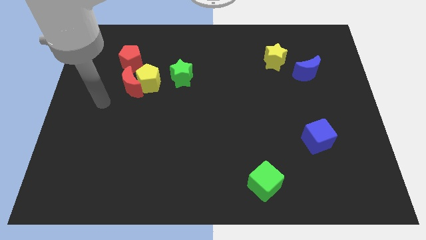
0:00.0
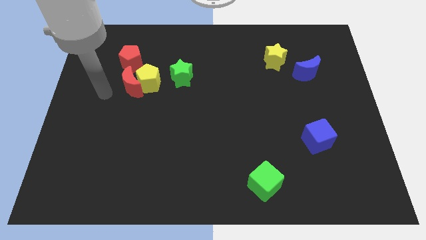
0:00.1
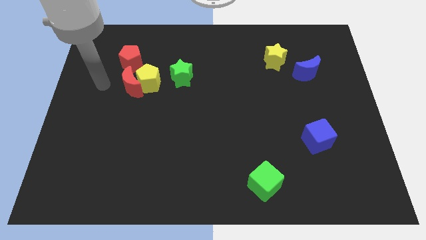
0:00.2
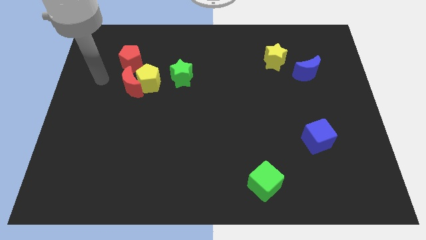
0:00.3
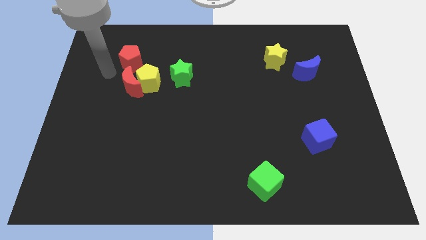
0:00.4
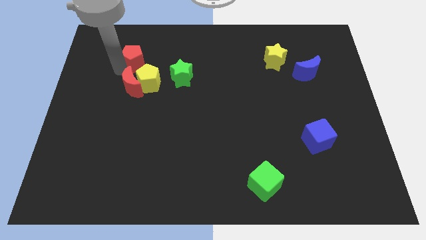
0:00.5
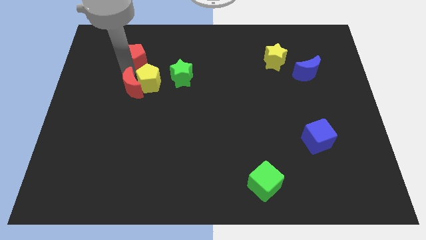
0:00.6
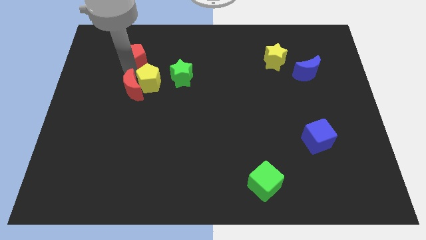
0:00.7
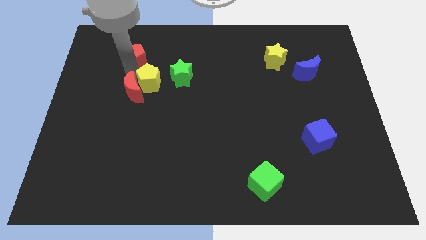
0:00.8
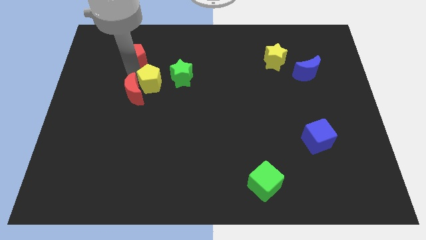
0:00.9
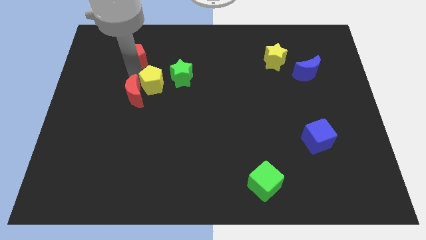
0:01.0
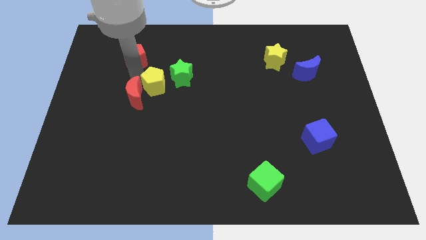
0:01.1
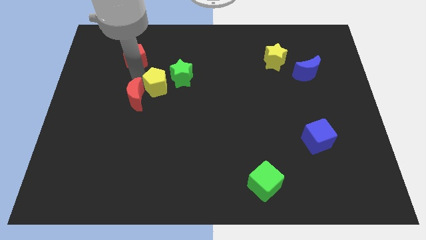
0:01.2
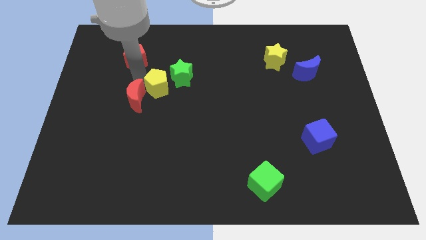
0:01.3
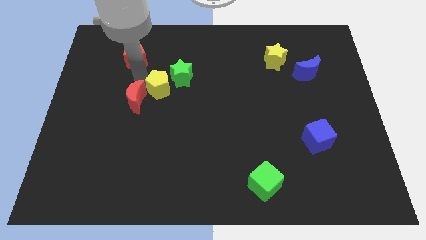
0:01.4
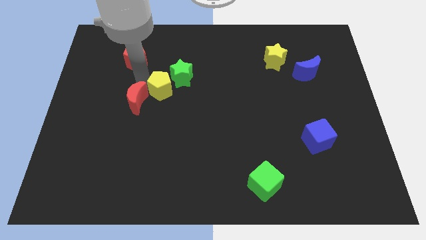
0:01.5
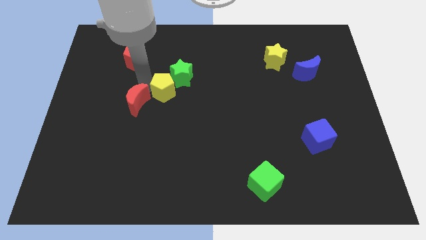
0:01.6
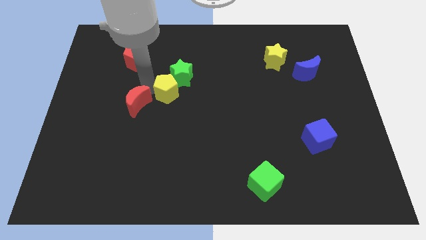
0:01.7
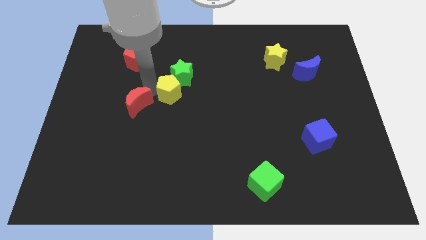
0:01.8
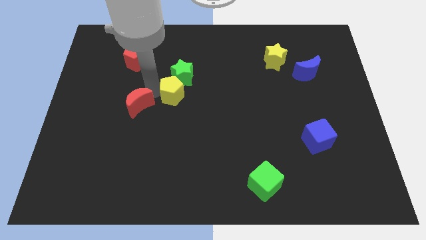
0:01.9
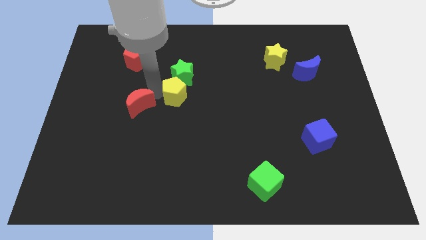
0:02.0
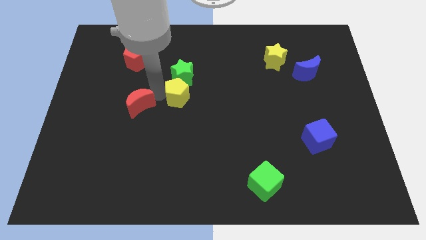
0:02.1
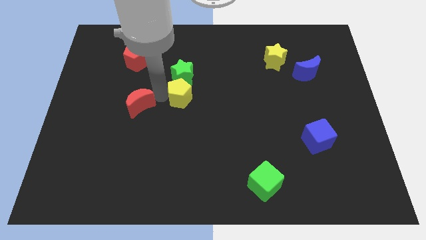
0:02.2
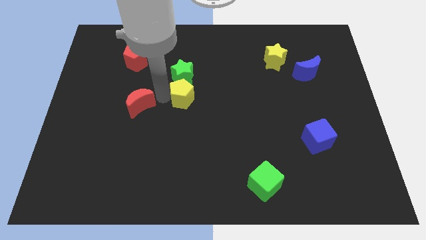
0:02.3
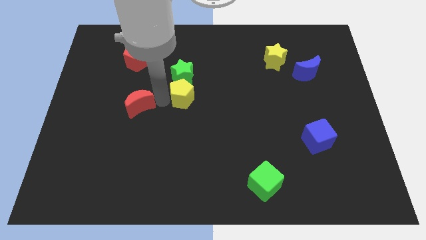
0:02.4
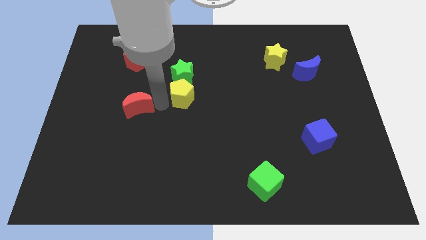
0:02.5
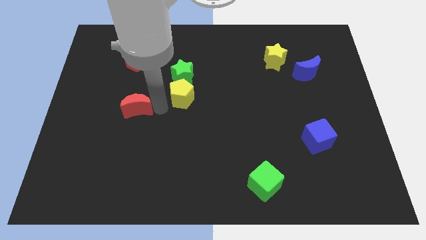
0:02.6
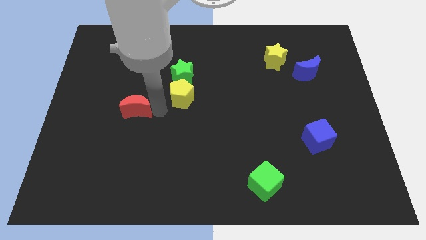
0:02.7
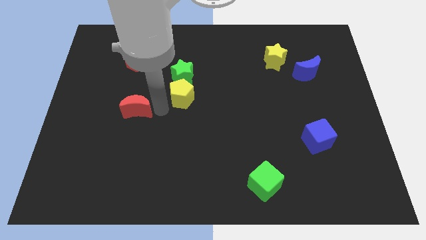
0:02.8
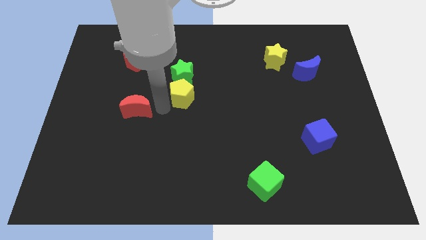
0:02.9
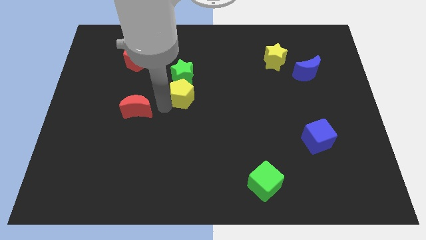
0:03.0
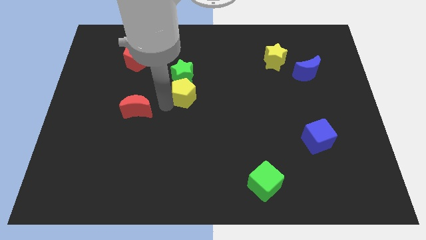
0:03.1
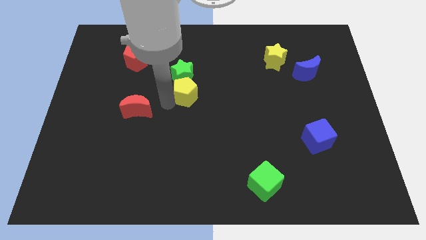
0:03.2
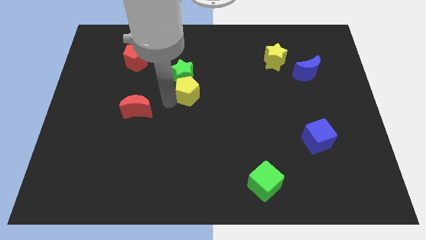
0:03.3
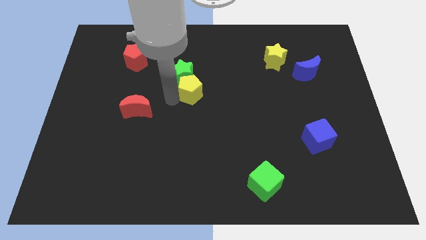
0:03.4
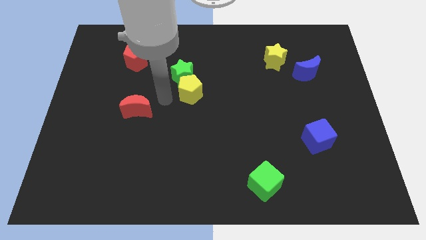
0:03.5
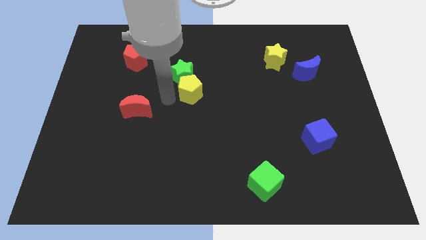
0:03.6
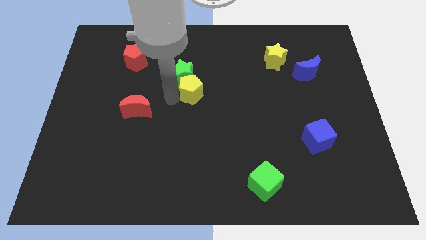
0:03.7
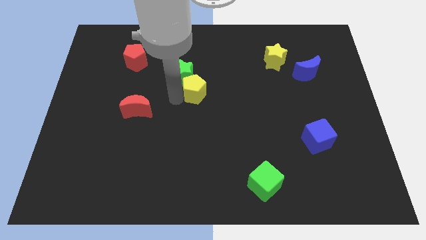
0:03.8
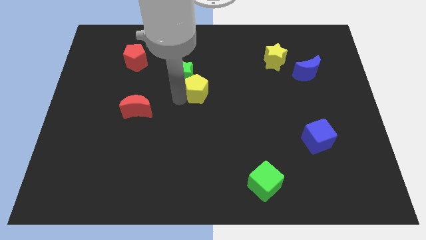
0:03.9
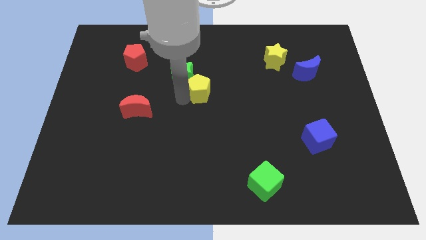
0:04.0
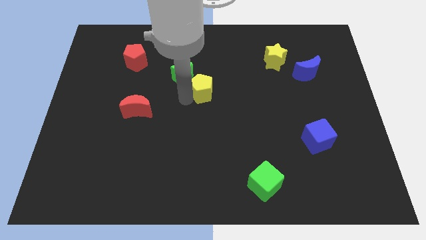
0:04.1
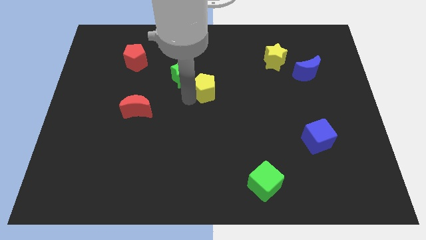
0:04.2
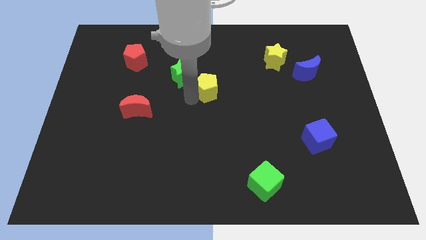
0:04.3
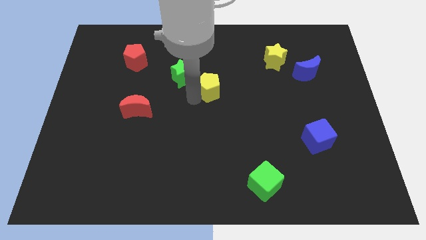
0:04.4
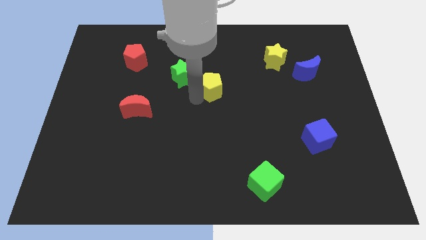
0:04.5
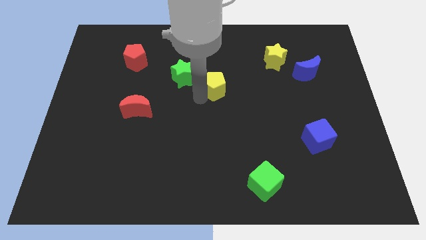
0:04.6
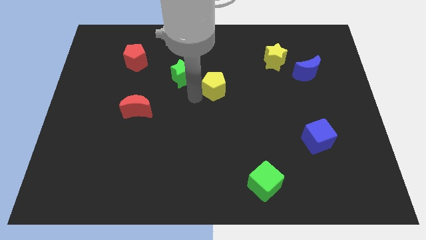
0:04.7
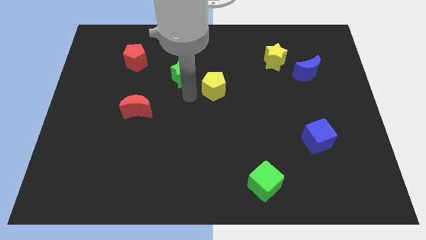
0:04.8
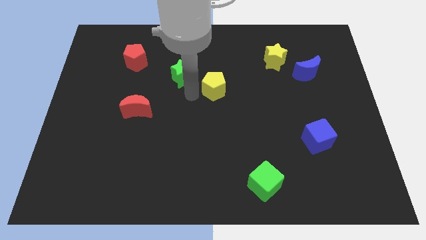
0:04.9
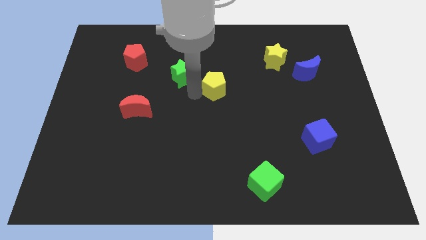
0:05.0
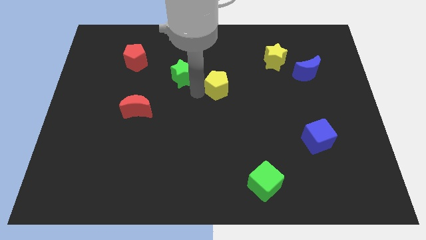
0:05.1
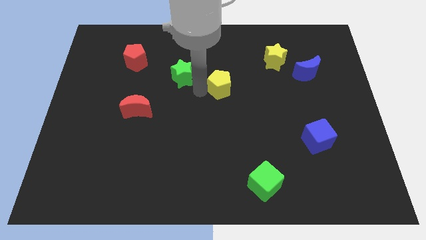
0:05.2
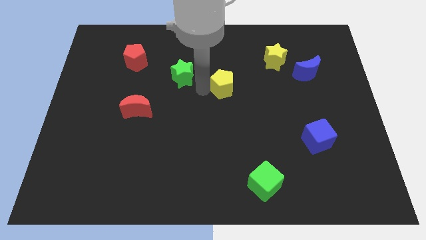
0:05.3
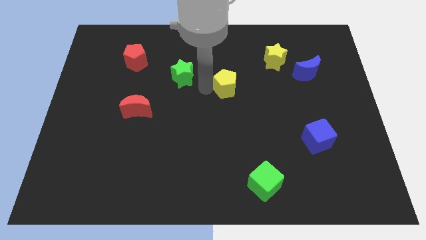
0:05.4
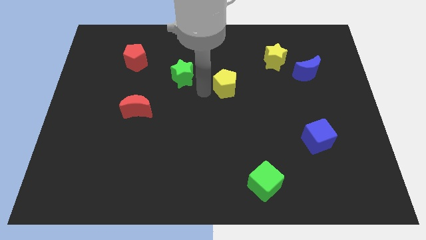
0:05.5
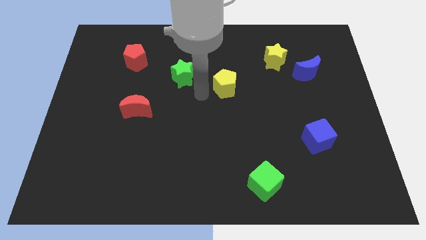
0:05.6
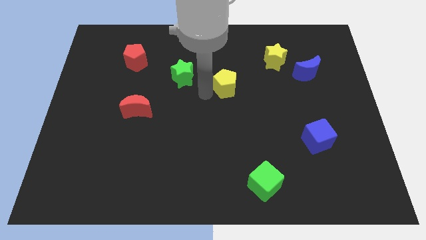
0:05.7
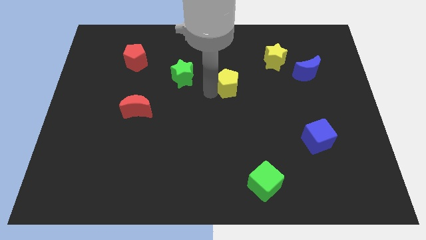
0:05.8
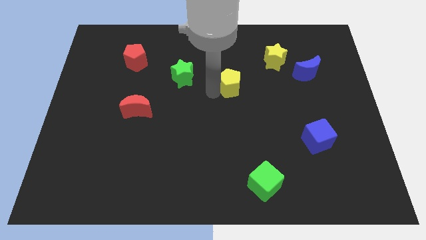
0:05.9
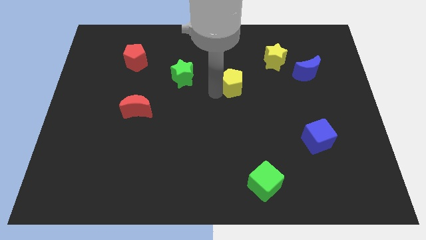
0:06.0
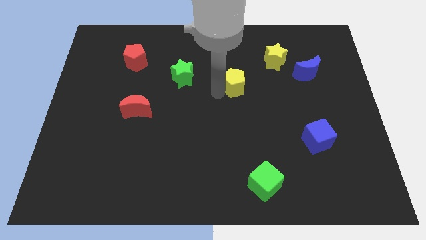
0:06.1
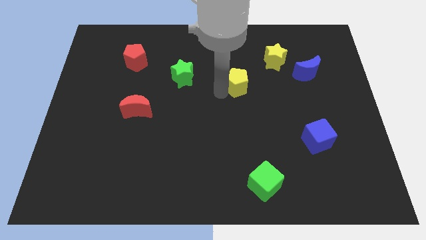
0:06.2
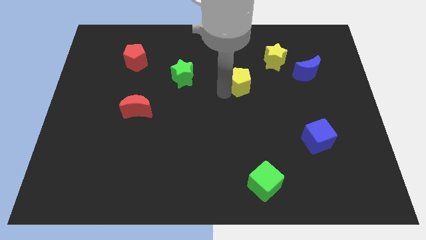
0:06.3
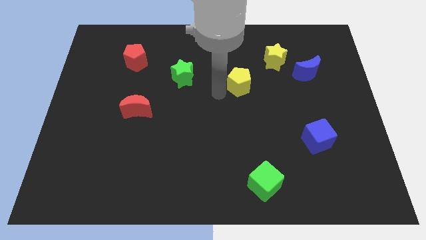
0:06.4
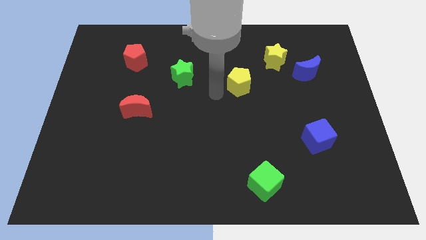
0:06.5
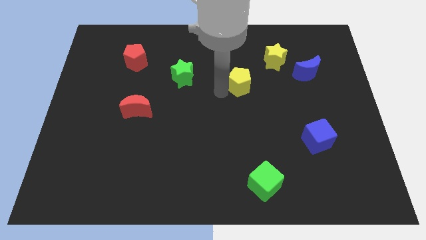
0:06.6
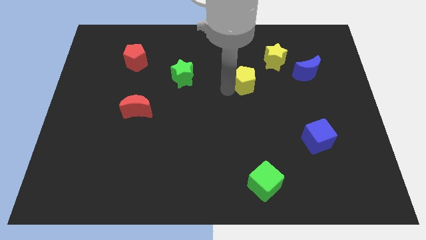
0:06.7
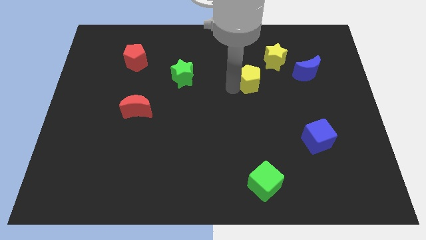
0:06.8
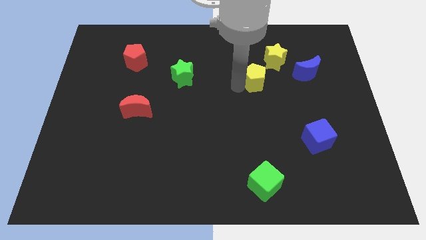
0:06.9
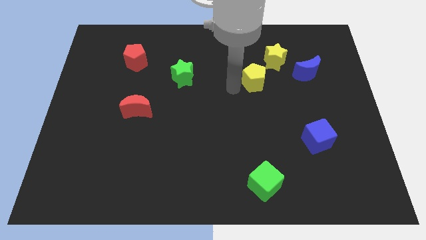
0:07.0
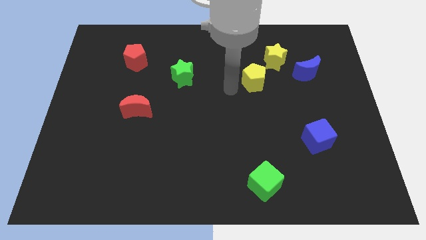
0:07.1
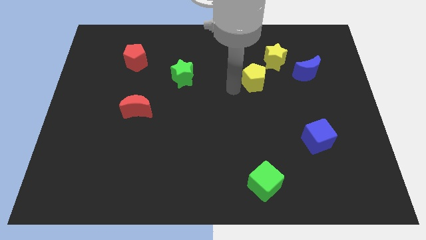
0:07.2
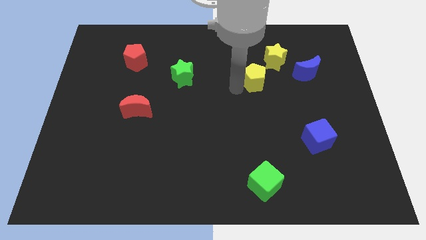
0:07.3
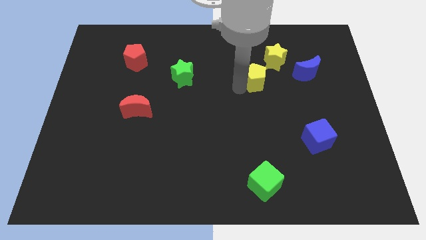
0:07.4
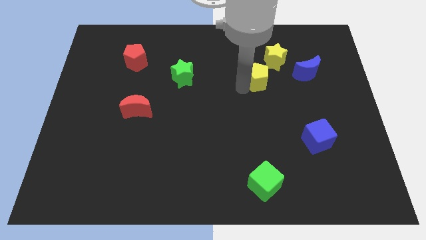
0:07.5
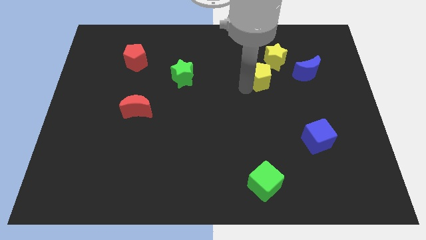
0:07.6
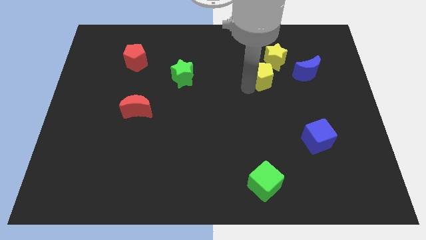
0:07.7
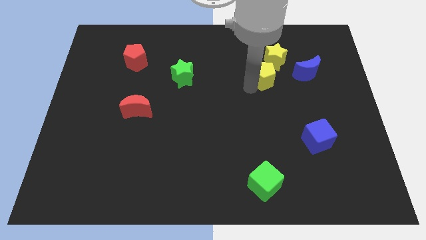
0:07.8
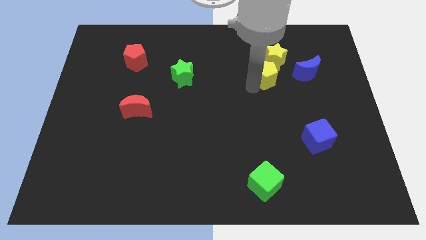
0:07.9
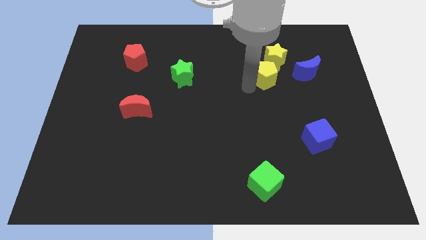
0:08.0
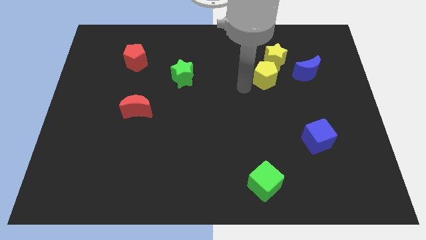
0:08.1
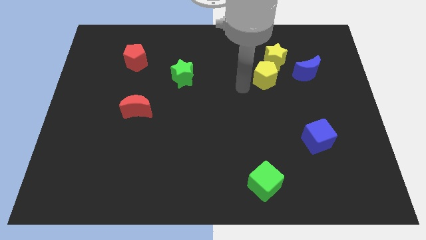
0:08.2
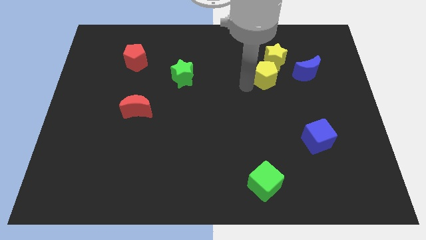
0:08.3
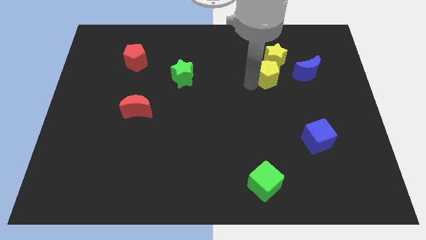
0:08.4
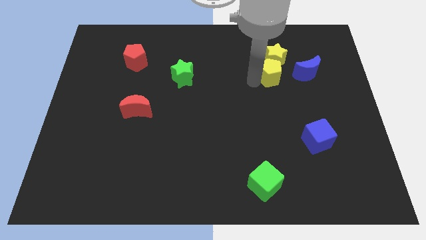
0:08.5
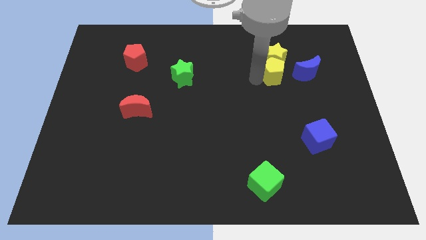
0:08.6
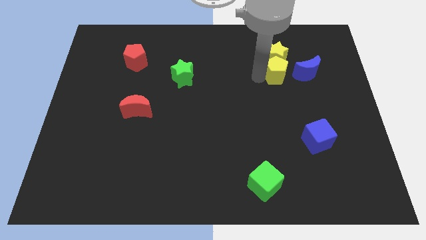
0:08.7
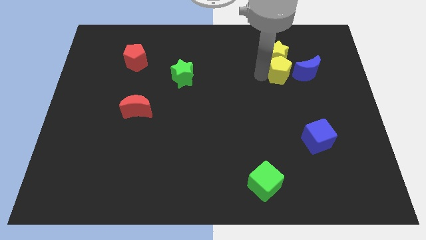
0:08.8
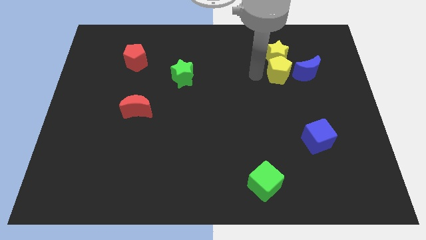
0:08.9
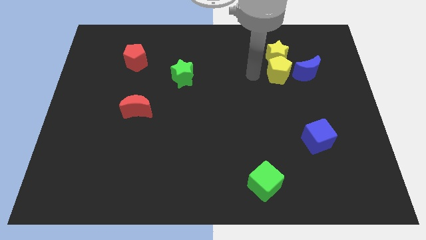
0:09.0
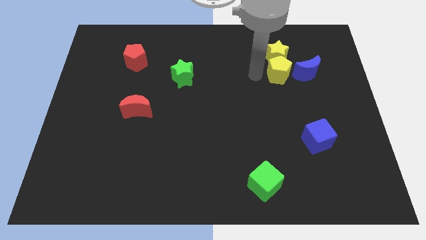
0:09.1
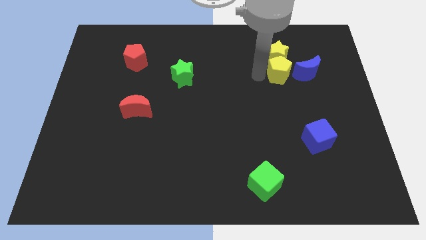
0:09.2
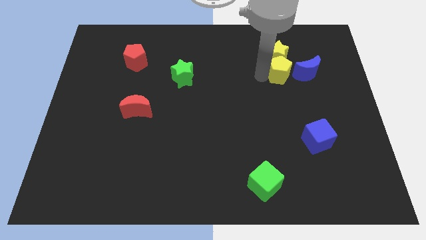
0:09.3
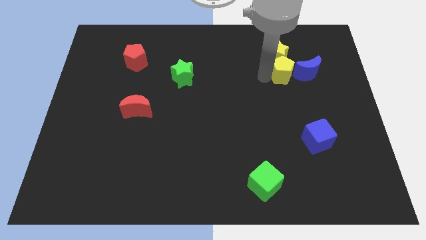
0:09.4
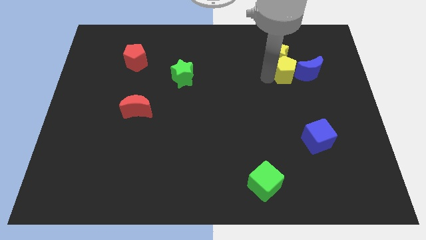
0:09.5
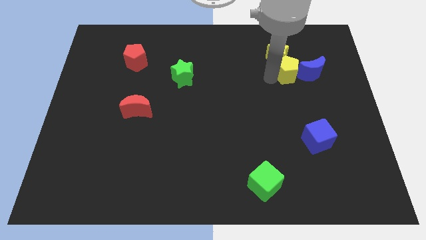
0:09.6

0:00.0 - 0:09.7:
move the yellow pentagon close to the blue moon
